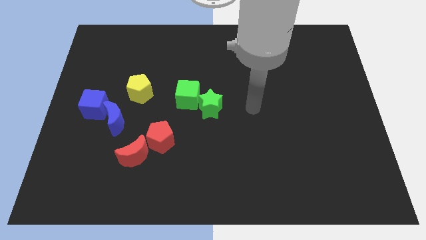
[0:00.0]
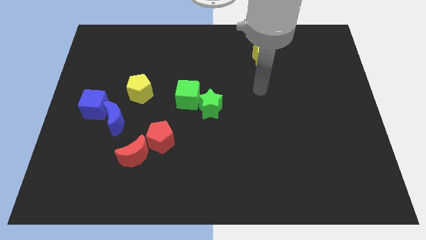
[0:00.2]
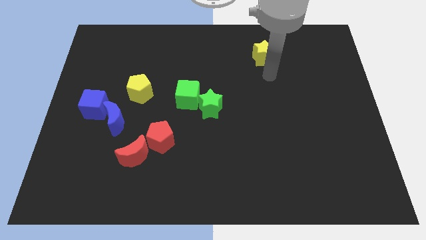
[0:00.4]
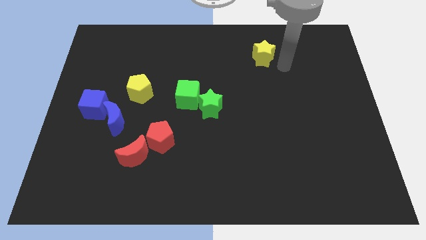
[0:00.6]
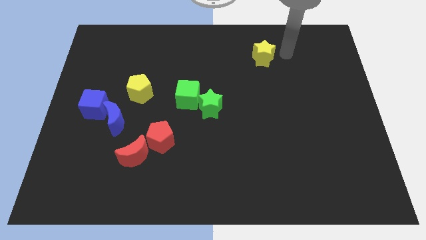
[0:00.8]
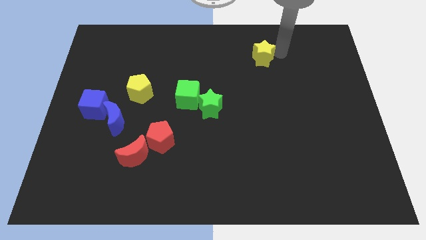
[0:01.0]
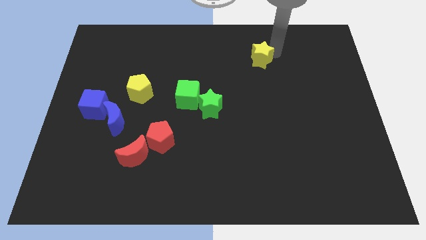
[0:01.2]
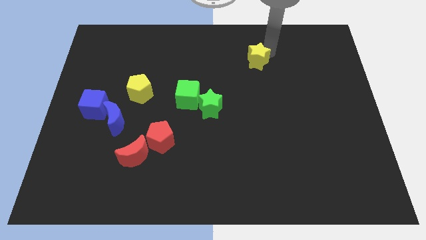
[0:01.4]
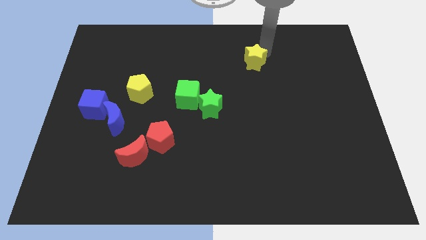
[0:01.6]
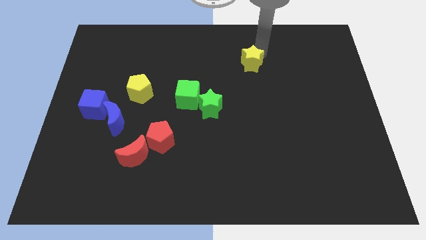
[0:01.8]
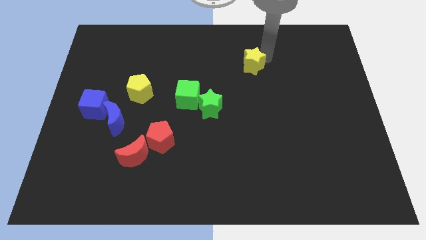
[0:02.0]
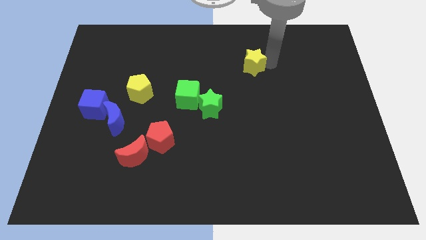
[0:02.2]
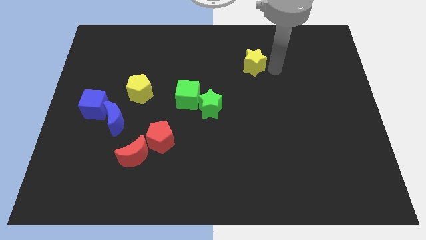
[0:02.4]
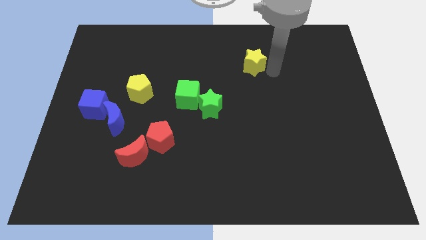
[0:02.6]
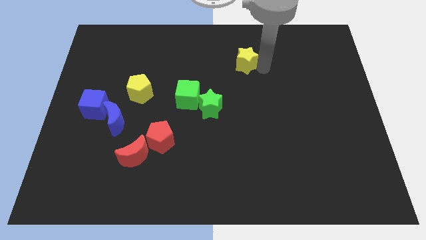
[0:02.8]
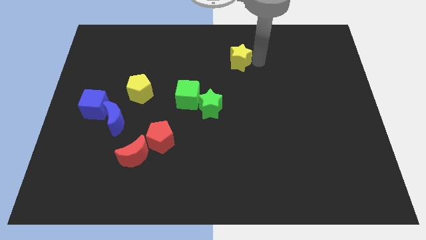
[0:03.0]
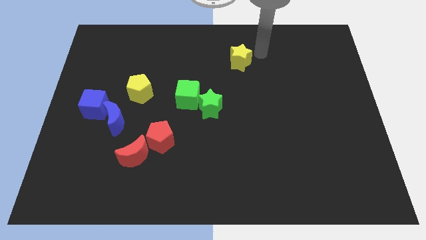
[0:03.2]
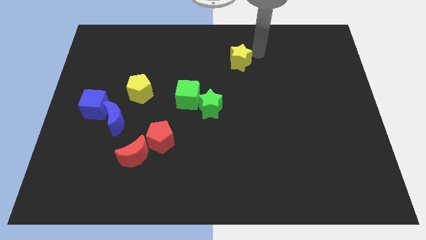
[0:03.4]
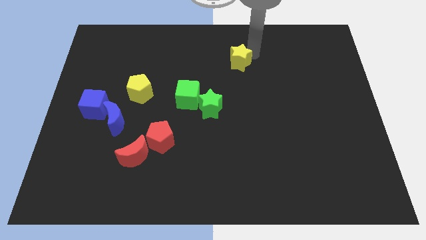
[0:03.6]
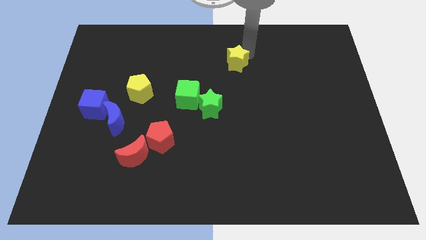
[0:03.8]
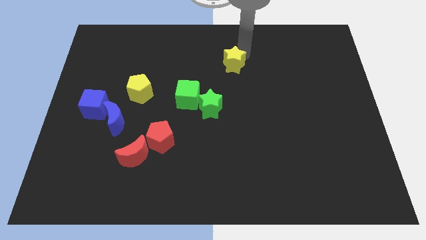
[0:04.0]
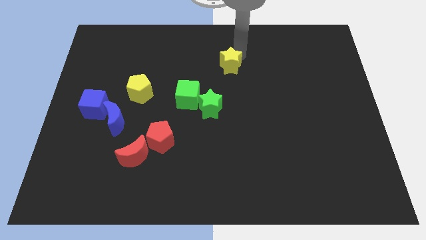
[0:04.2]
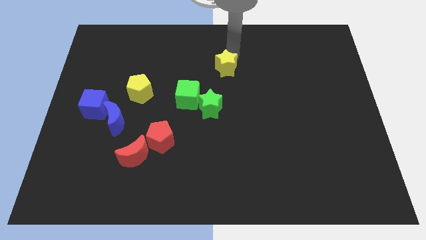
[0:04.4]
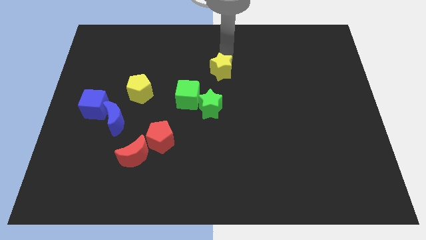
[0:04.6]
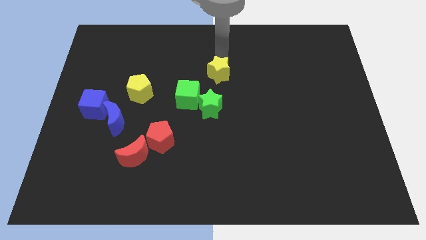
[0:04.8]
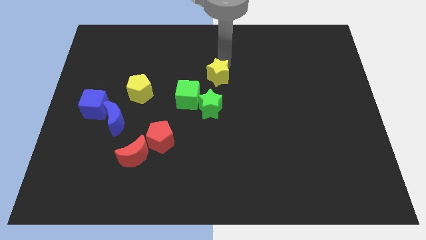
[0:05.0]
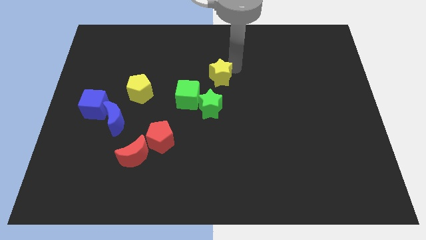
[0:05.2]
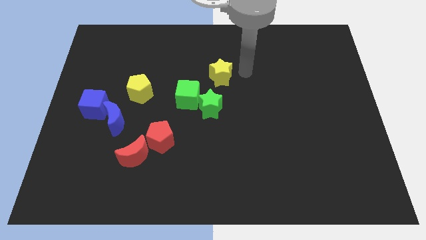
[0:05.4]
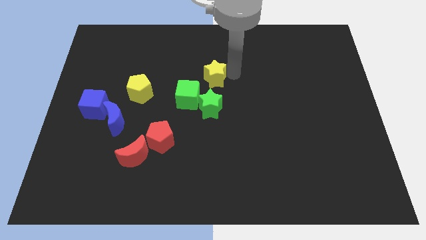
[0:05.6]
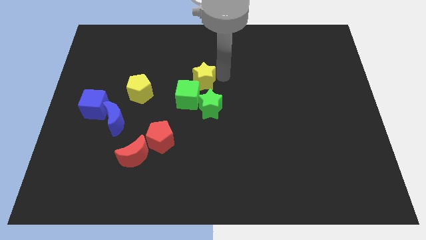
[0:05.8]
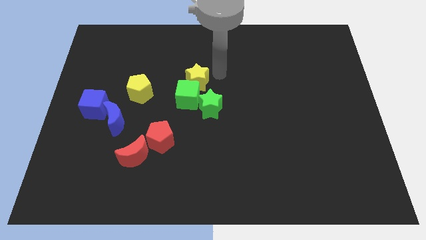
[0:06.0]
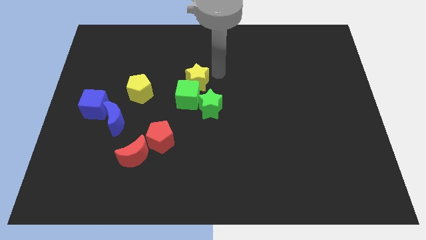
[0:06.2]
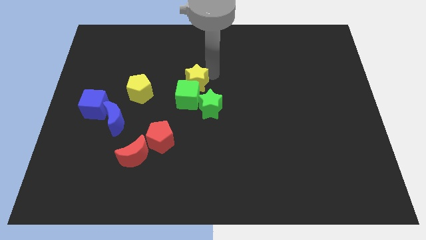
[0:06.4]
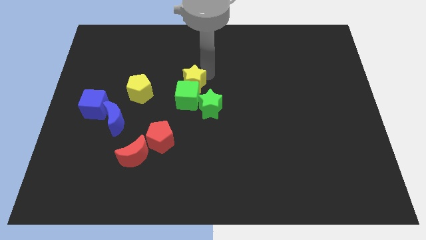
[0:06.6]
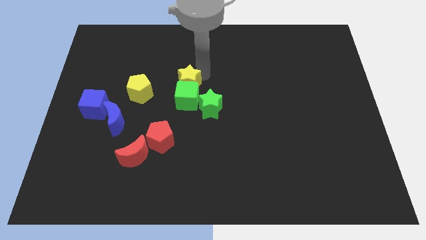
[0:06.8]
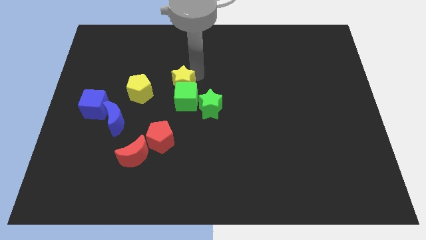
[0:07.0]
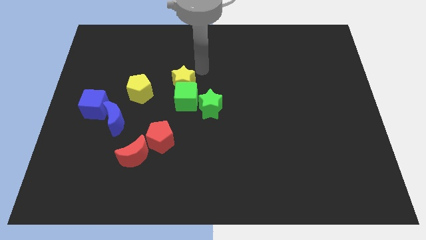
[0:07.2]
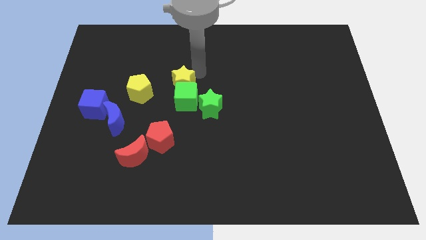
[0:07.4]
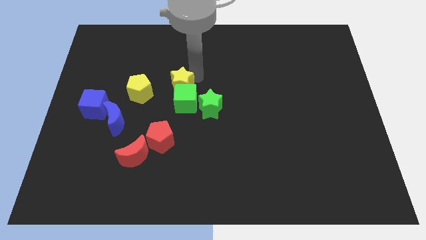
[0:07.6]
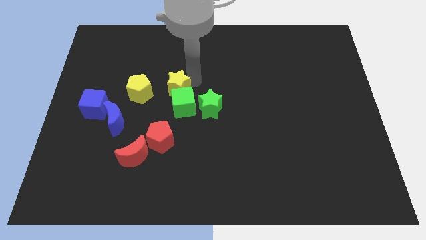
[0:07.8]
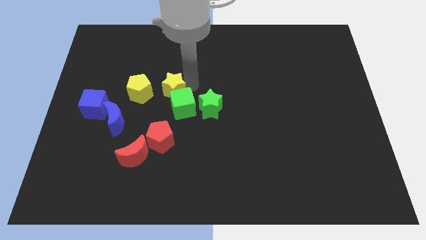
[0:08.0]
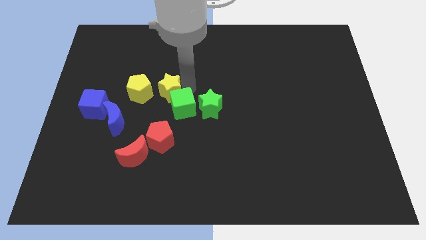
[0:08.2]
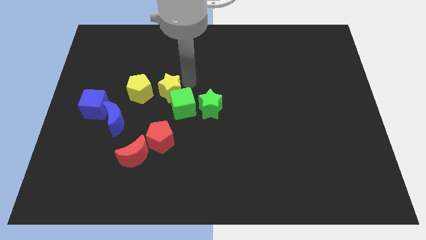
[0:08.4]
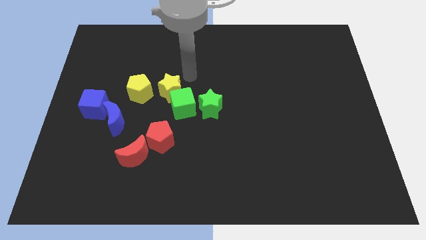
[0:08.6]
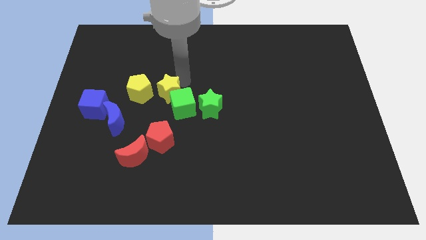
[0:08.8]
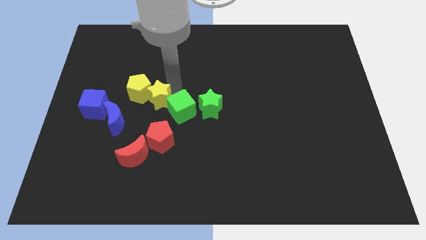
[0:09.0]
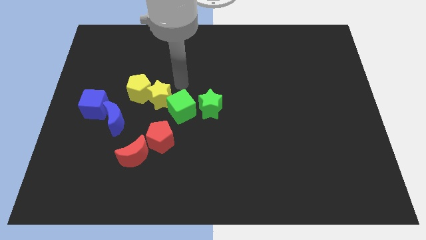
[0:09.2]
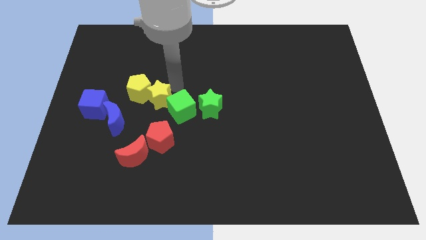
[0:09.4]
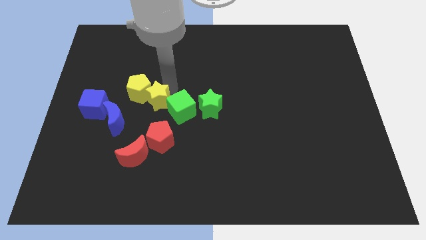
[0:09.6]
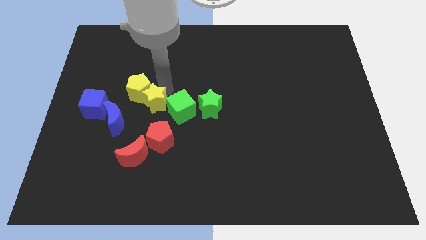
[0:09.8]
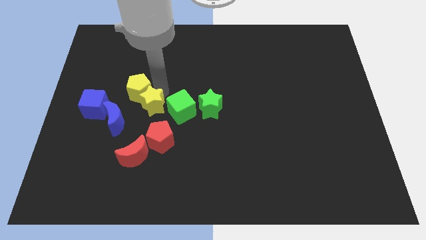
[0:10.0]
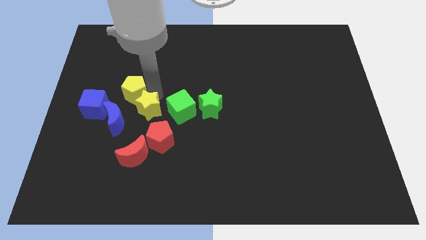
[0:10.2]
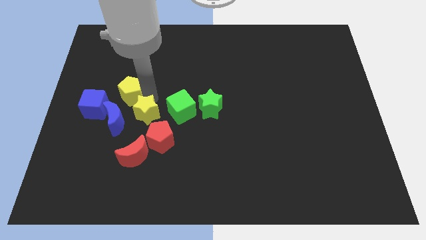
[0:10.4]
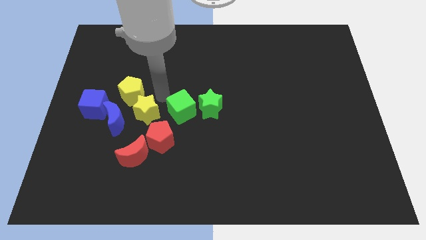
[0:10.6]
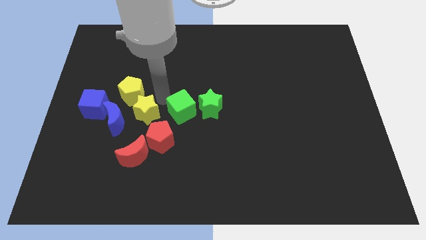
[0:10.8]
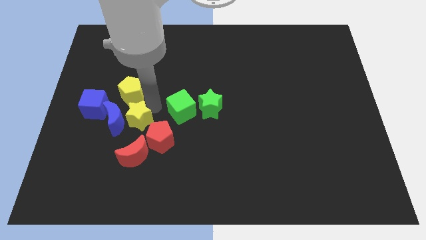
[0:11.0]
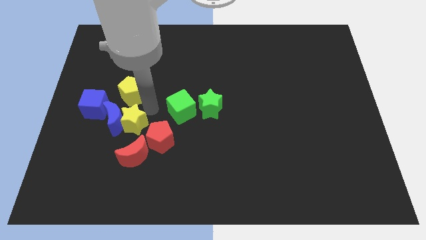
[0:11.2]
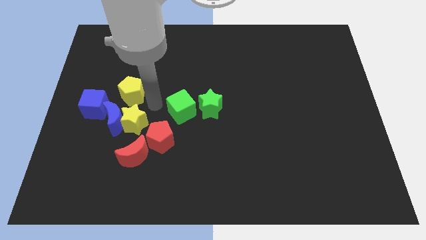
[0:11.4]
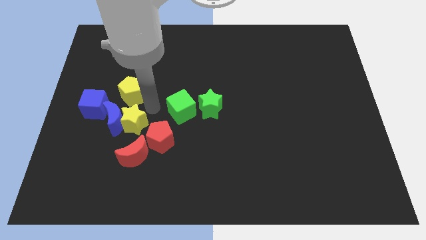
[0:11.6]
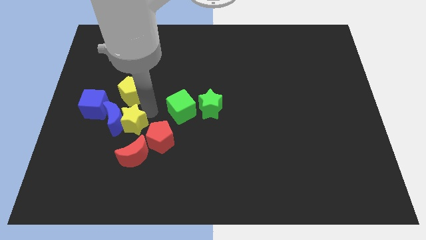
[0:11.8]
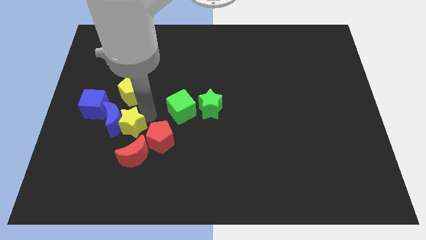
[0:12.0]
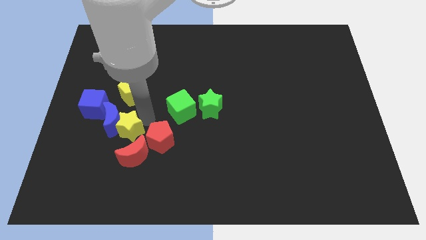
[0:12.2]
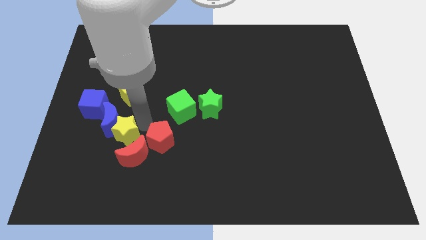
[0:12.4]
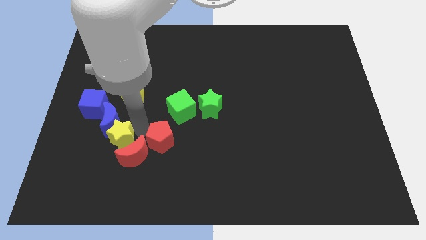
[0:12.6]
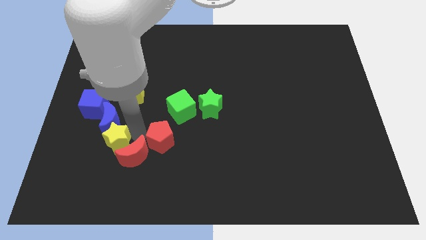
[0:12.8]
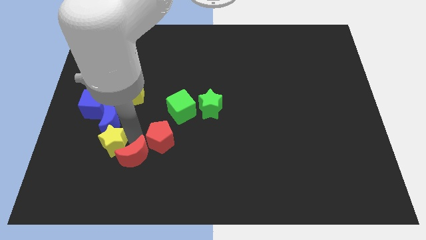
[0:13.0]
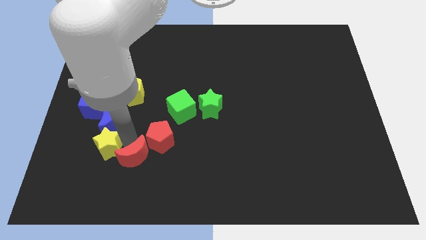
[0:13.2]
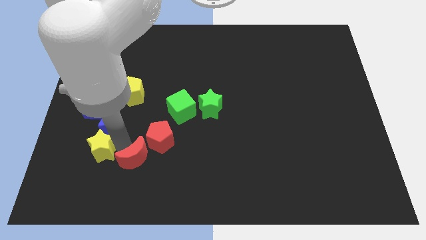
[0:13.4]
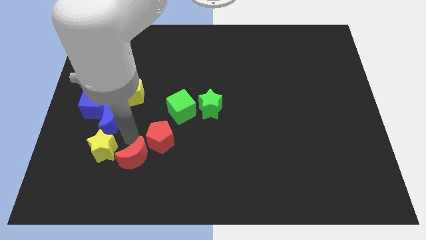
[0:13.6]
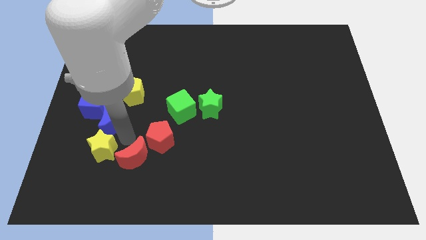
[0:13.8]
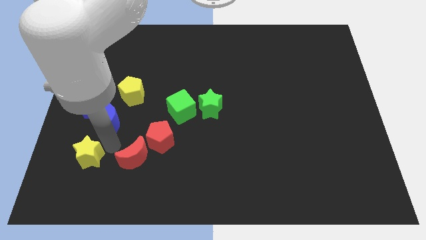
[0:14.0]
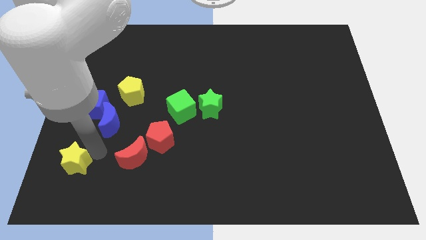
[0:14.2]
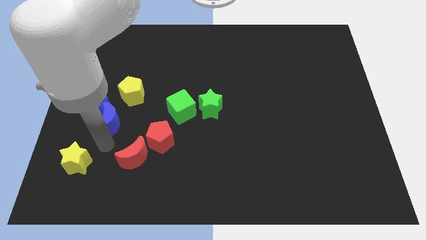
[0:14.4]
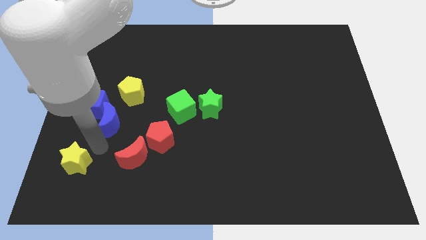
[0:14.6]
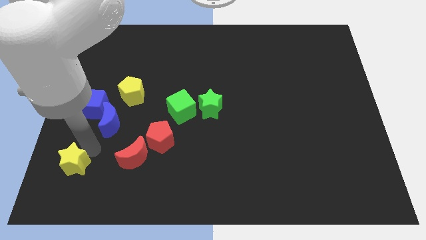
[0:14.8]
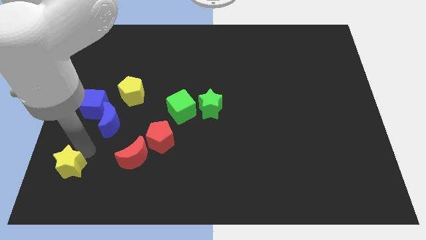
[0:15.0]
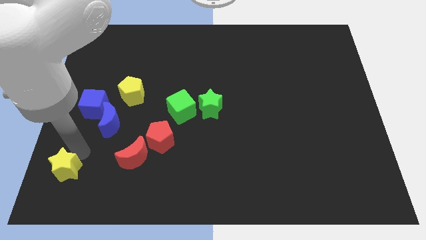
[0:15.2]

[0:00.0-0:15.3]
push the yellow star to the bottom left
